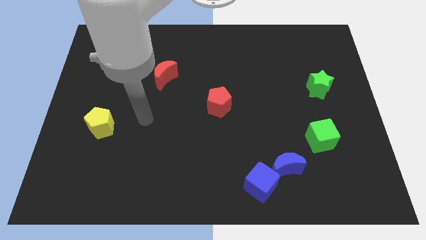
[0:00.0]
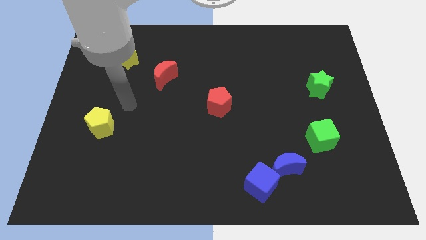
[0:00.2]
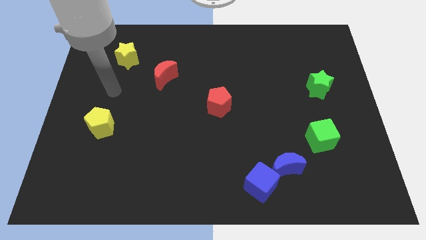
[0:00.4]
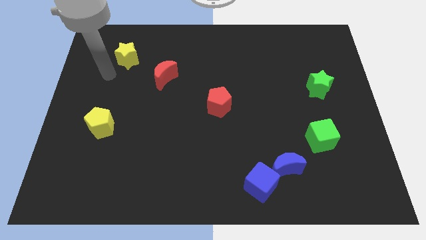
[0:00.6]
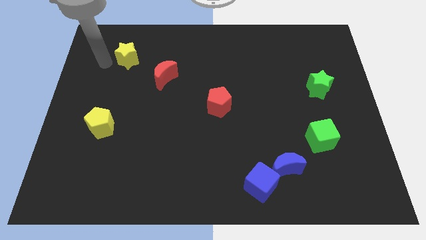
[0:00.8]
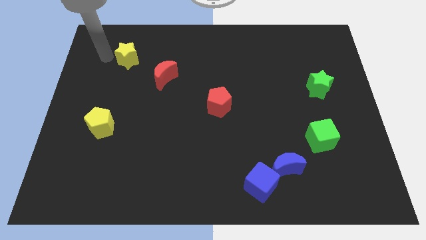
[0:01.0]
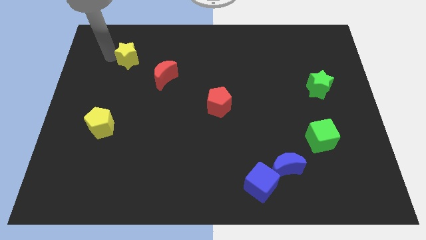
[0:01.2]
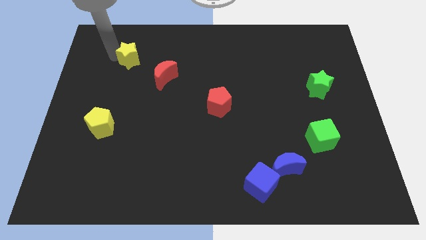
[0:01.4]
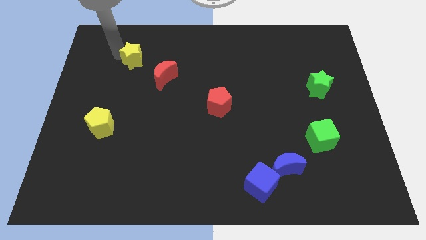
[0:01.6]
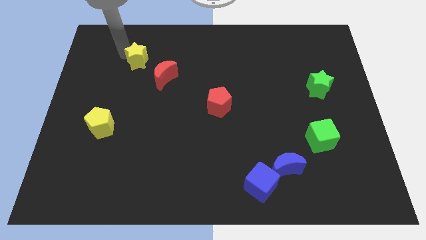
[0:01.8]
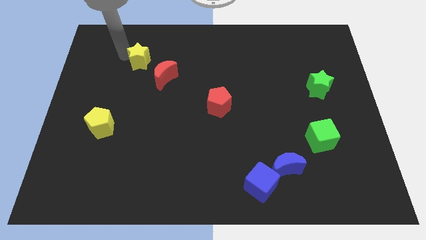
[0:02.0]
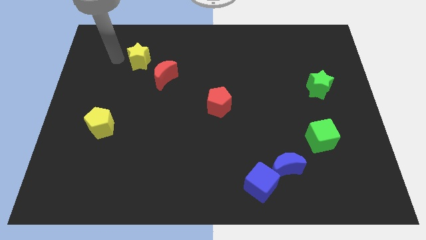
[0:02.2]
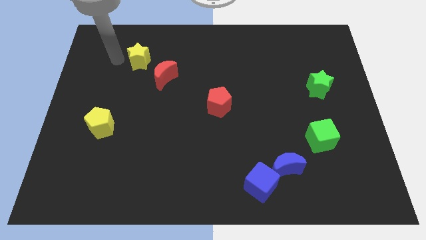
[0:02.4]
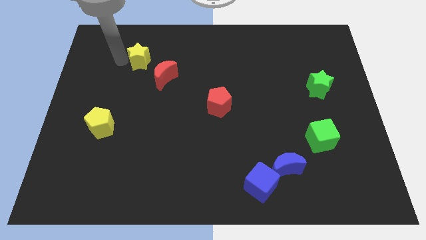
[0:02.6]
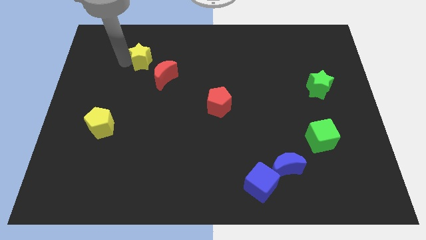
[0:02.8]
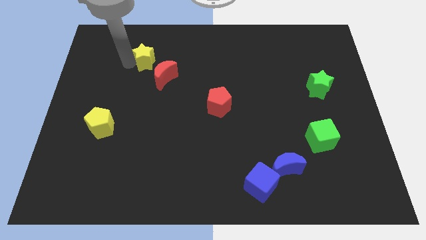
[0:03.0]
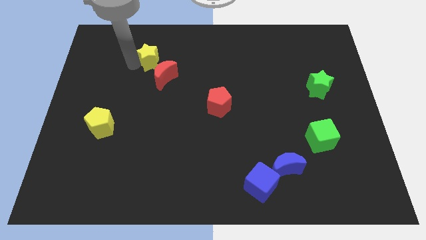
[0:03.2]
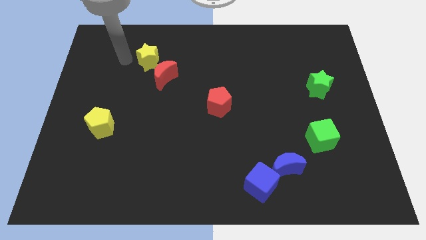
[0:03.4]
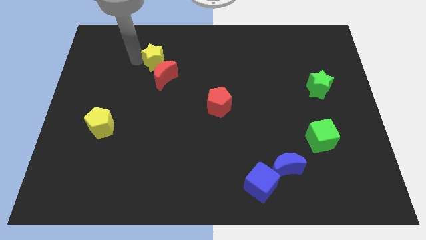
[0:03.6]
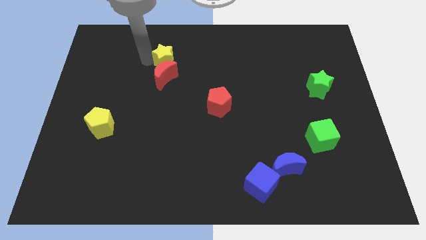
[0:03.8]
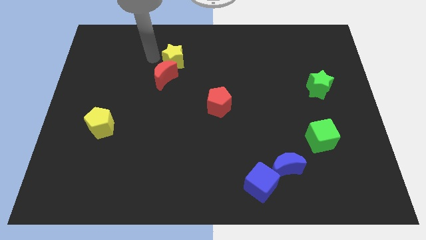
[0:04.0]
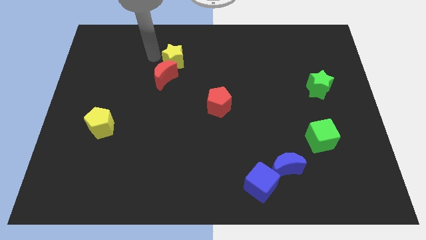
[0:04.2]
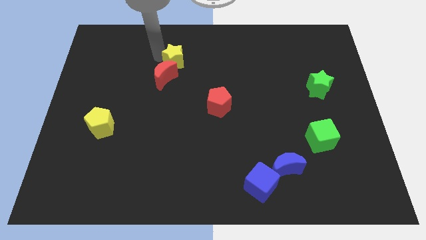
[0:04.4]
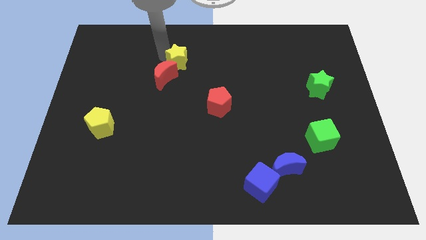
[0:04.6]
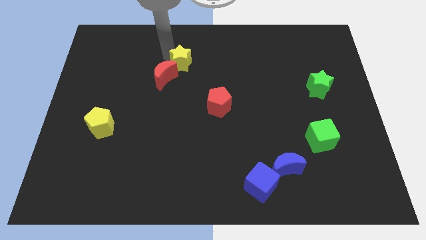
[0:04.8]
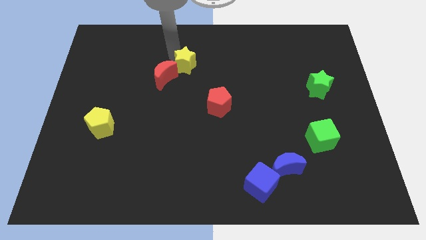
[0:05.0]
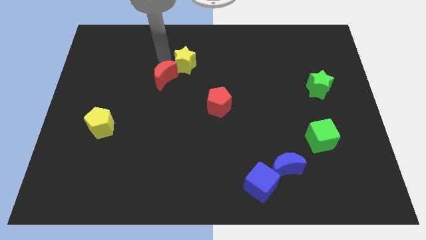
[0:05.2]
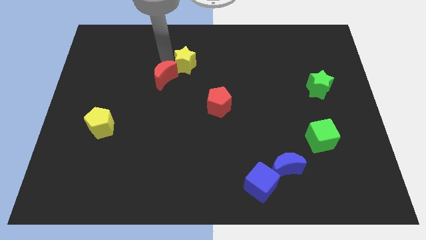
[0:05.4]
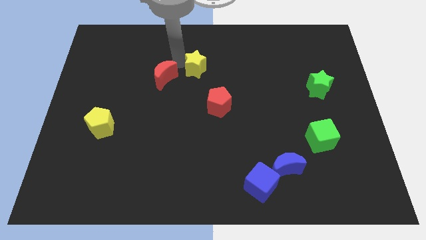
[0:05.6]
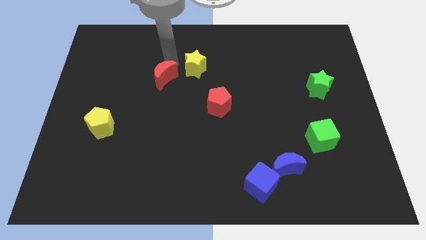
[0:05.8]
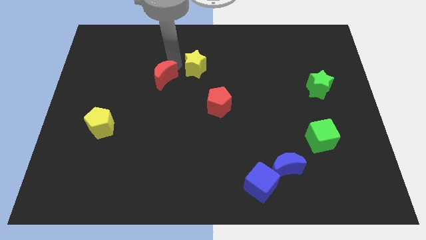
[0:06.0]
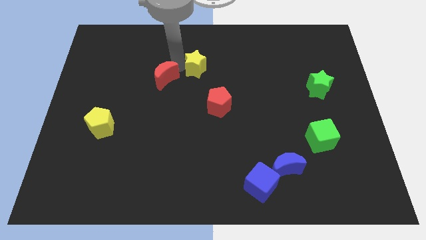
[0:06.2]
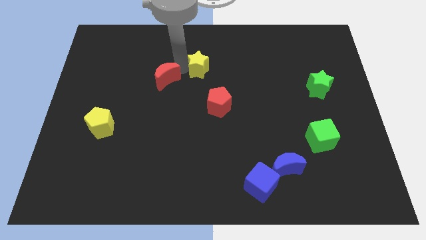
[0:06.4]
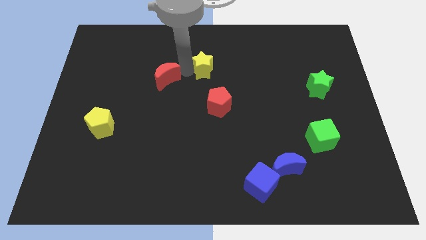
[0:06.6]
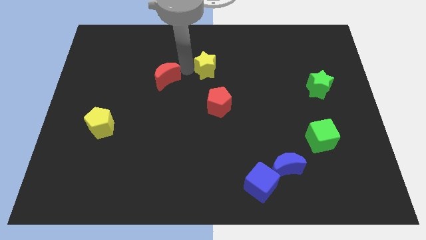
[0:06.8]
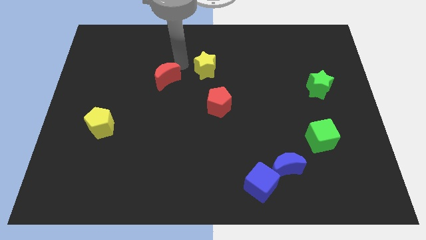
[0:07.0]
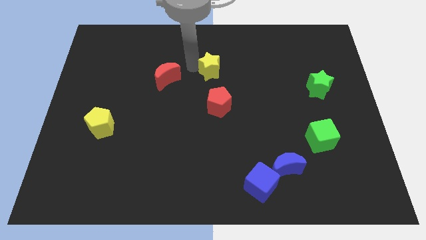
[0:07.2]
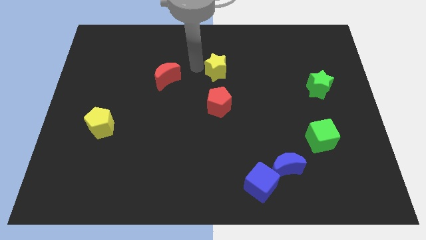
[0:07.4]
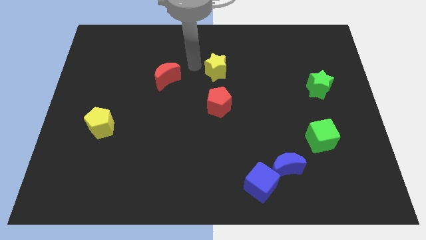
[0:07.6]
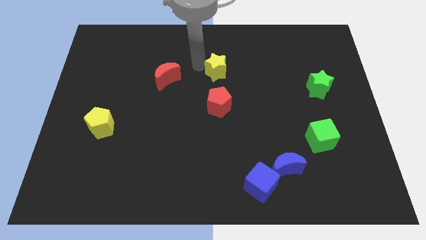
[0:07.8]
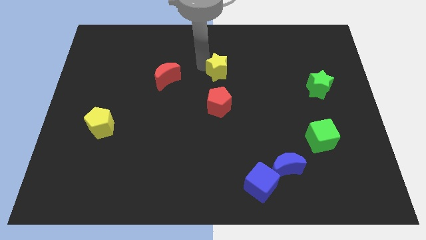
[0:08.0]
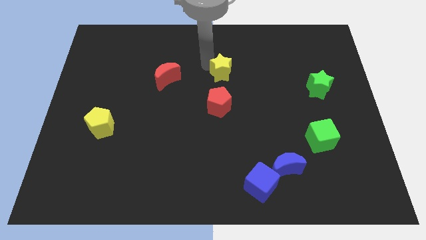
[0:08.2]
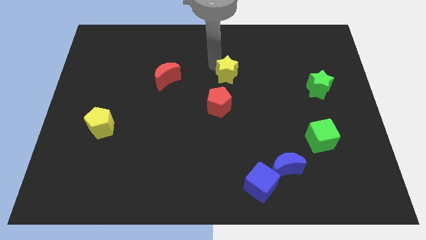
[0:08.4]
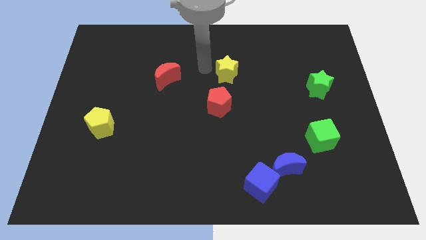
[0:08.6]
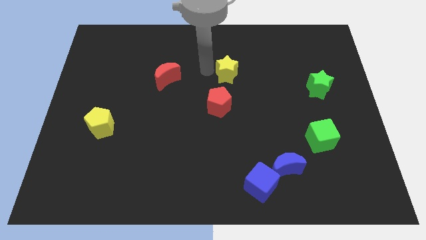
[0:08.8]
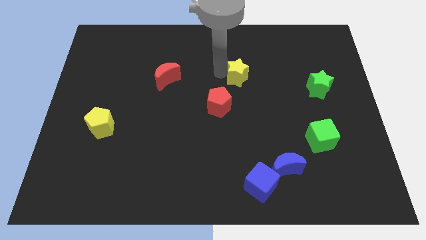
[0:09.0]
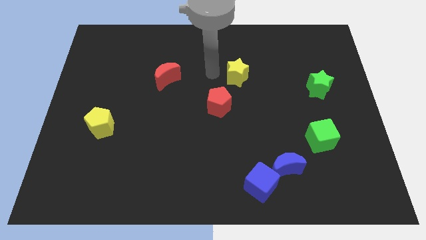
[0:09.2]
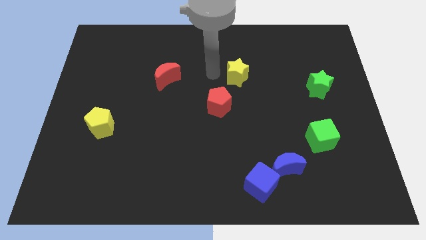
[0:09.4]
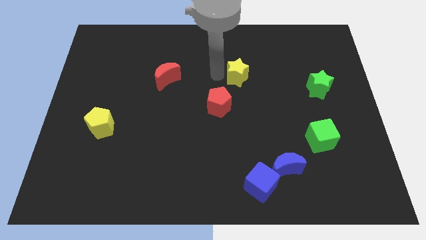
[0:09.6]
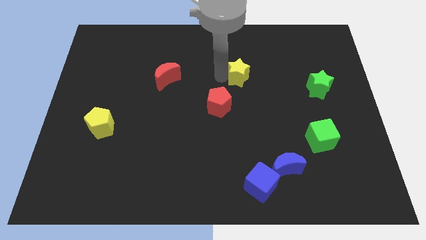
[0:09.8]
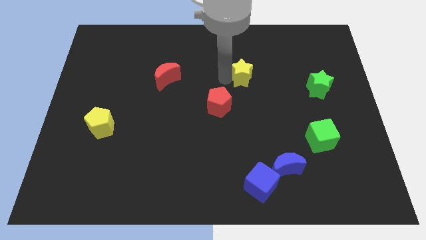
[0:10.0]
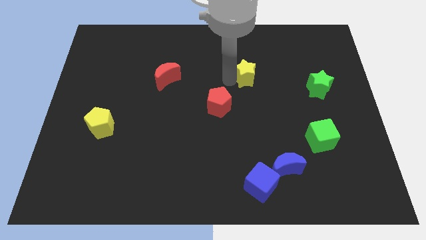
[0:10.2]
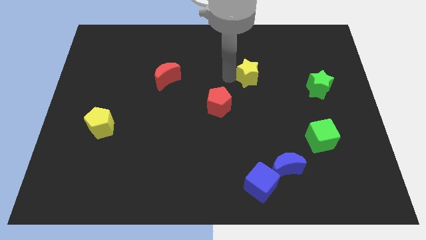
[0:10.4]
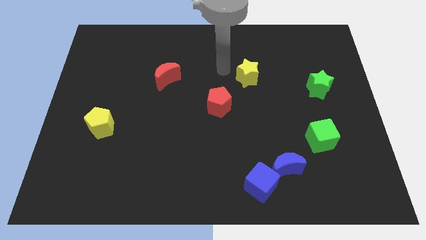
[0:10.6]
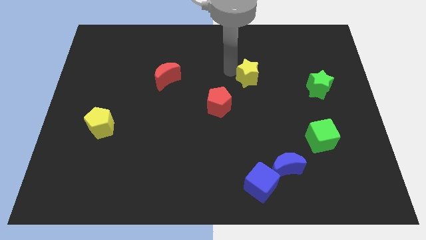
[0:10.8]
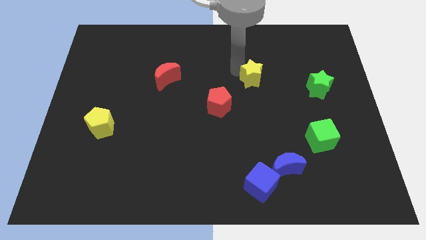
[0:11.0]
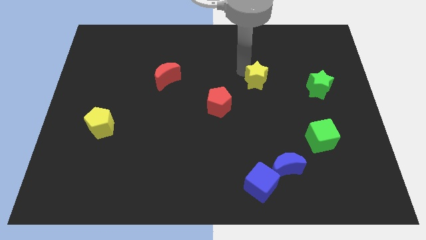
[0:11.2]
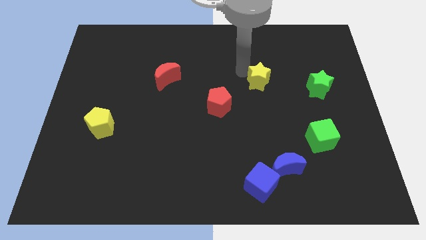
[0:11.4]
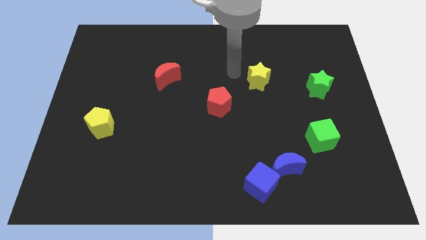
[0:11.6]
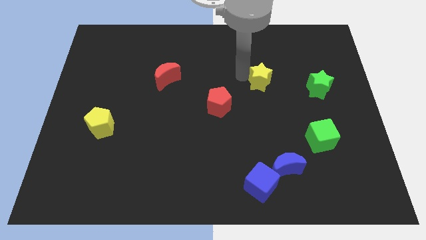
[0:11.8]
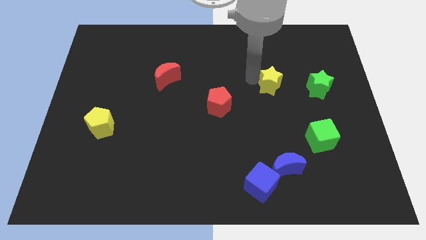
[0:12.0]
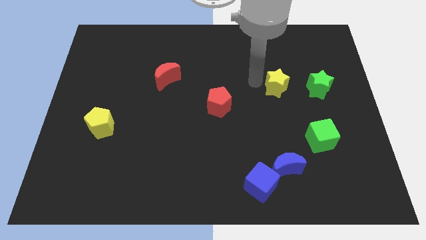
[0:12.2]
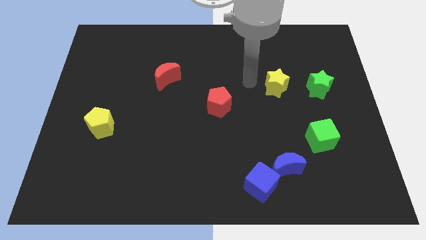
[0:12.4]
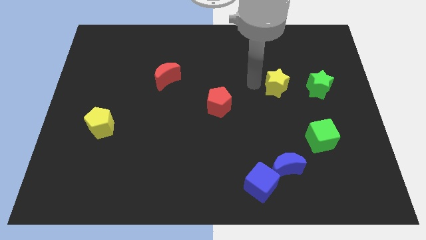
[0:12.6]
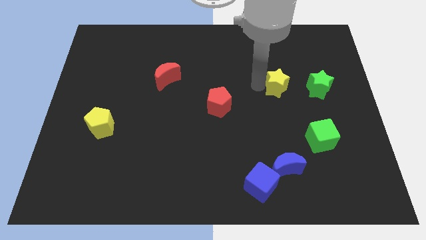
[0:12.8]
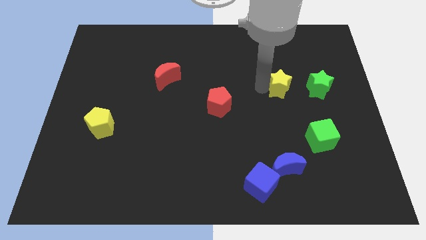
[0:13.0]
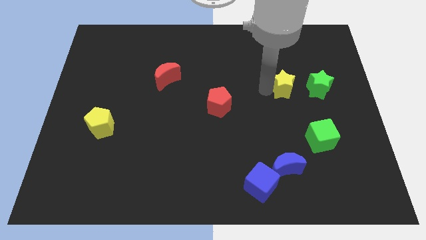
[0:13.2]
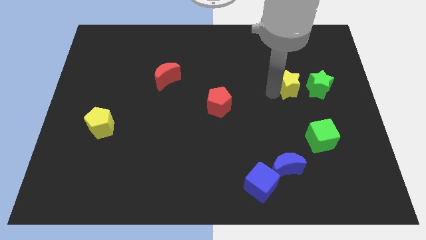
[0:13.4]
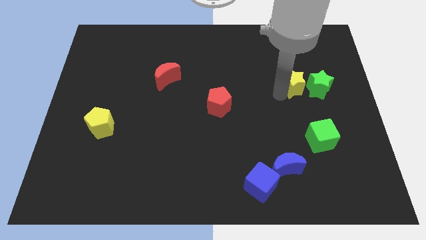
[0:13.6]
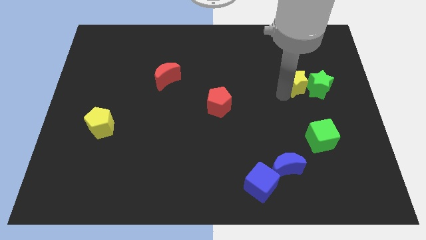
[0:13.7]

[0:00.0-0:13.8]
push the yellow star next to the green star
